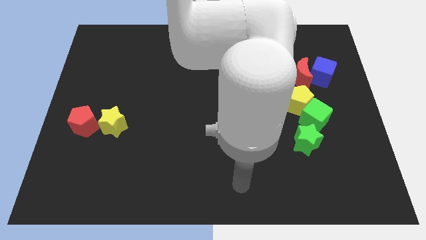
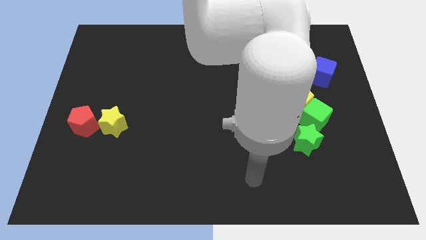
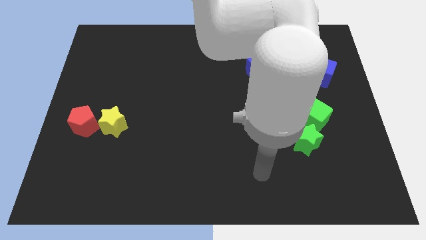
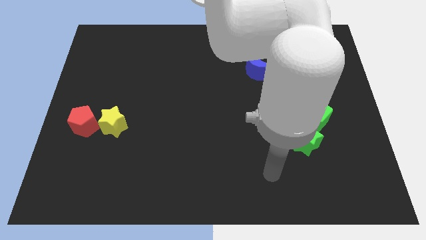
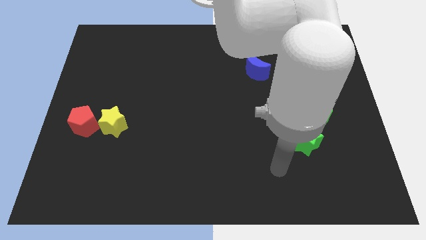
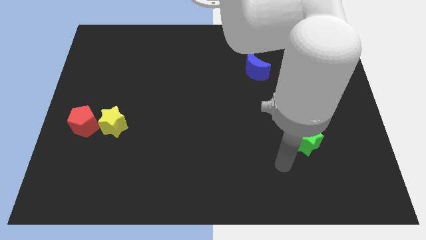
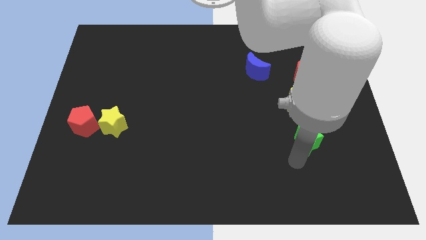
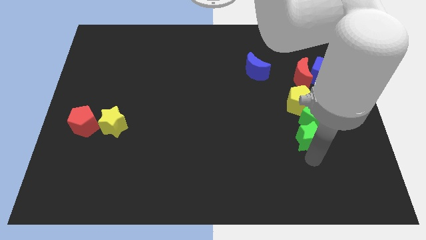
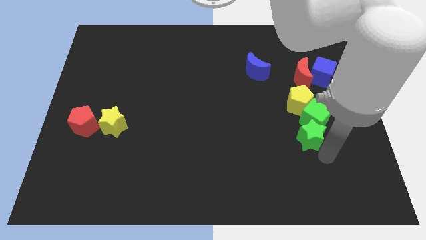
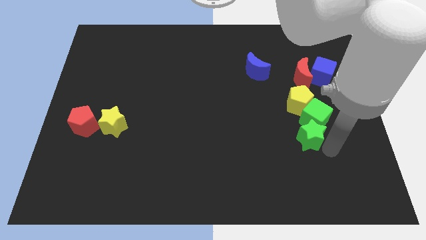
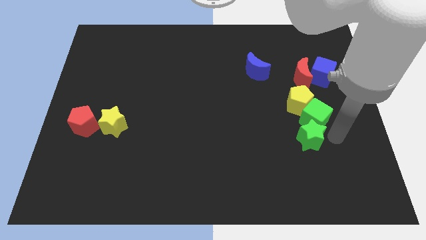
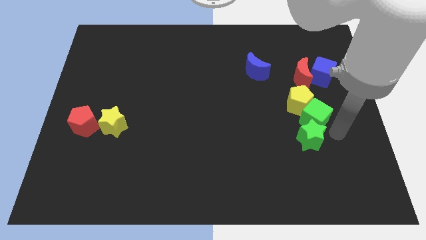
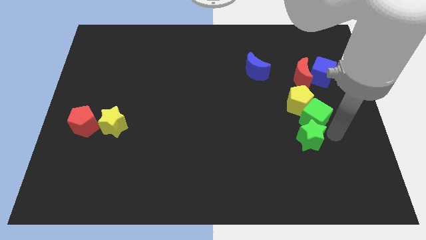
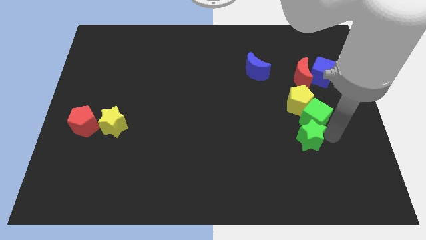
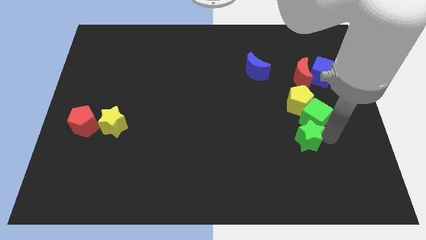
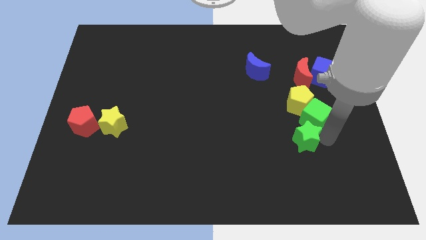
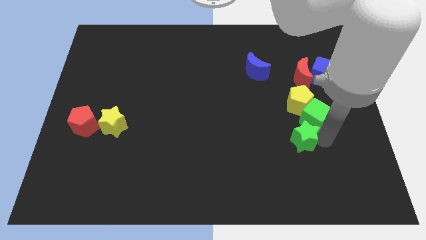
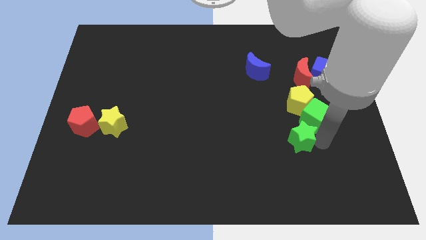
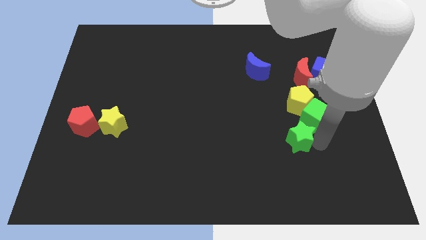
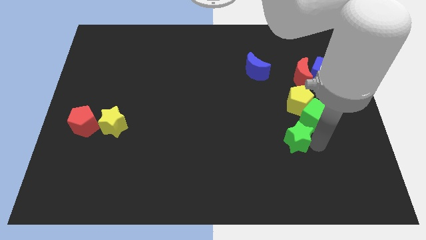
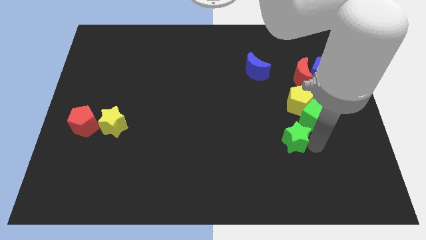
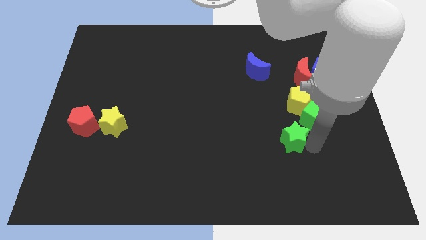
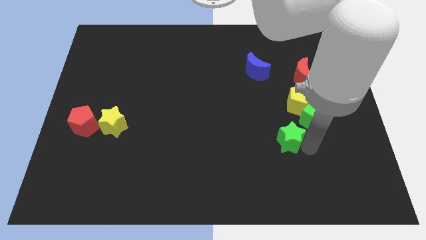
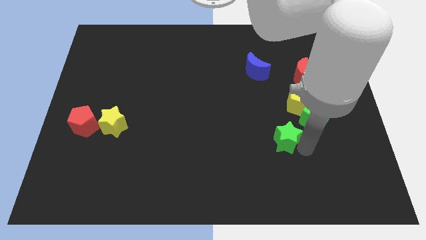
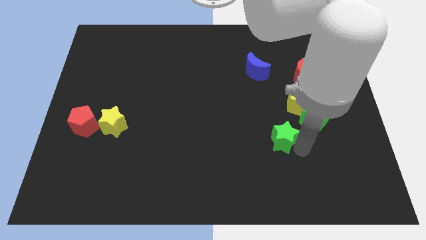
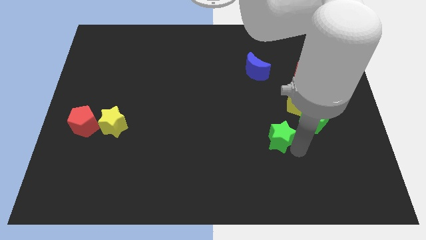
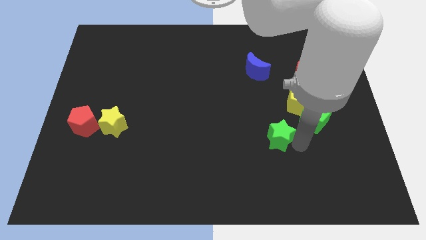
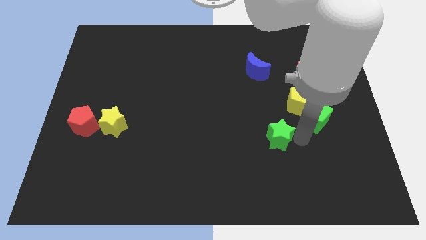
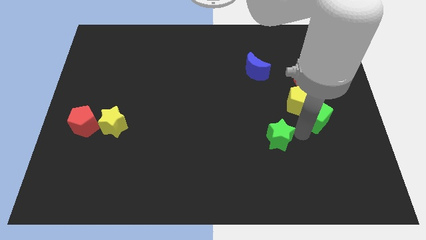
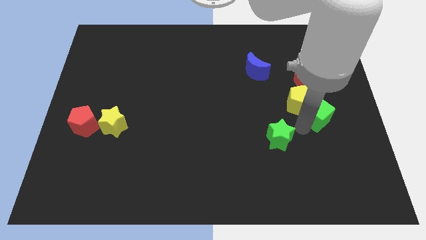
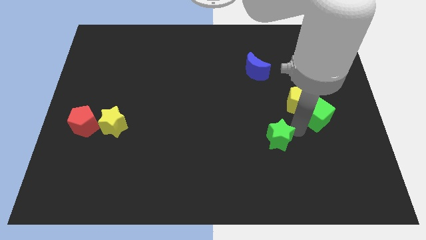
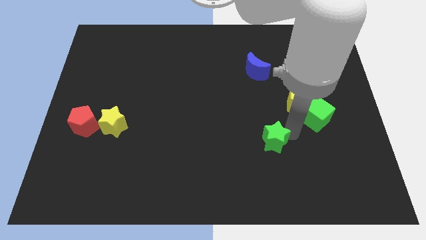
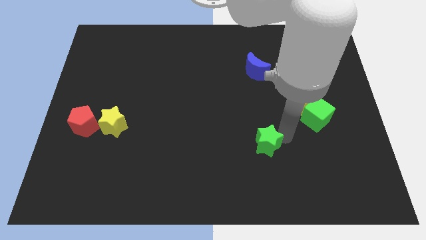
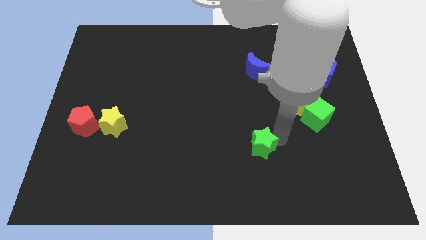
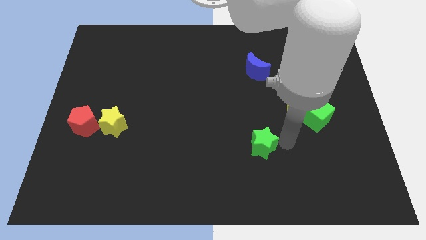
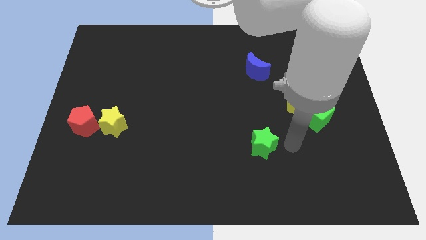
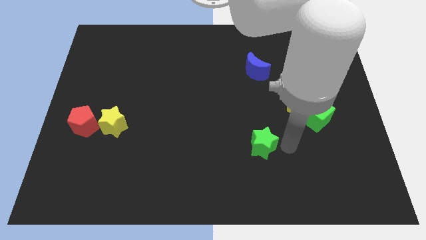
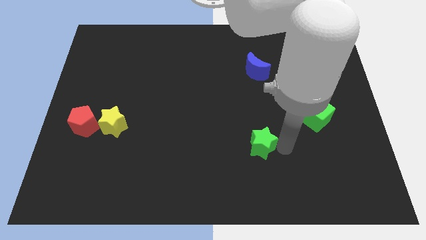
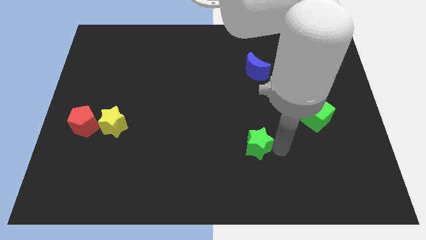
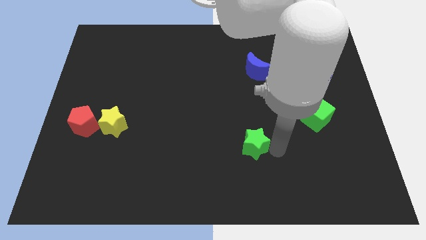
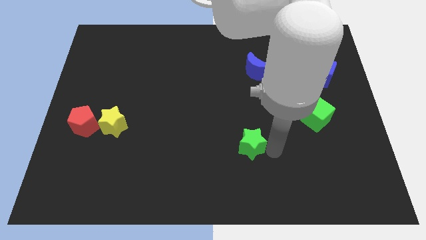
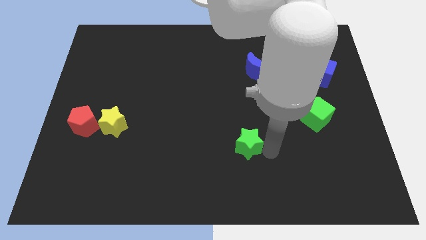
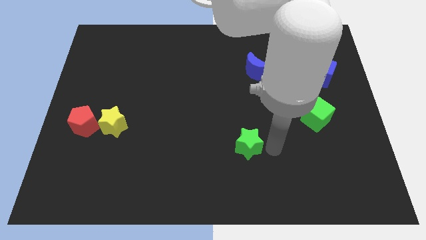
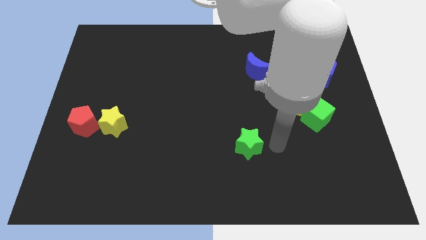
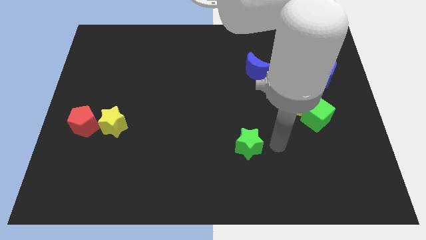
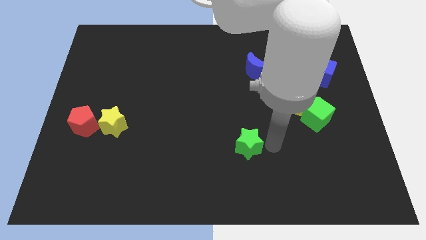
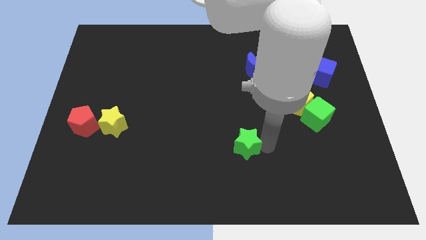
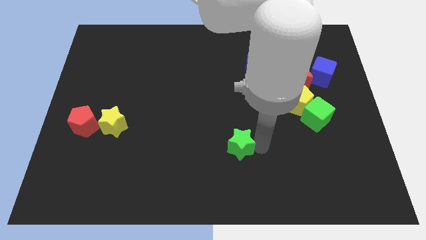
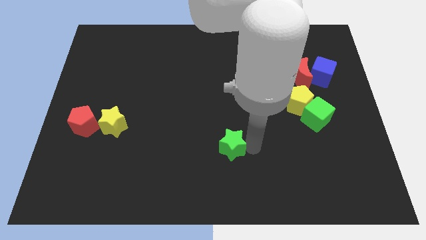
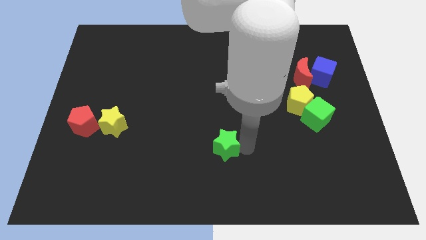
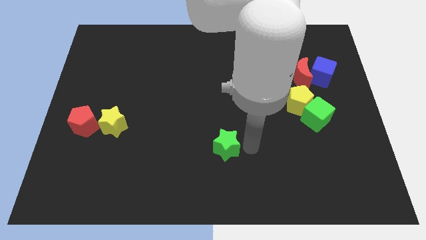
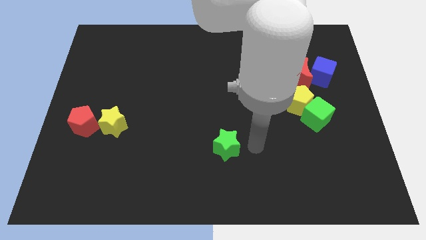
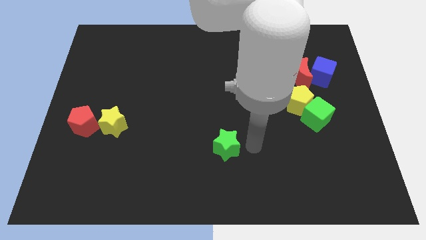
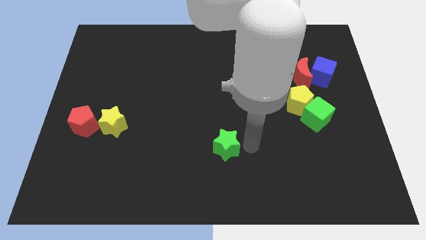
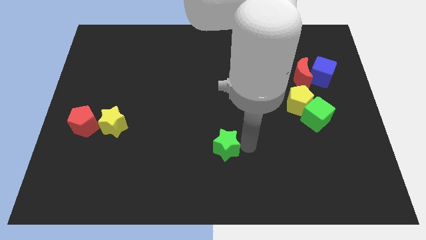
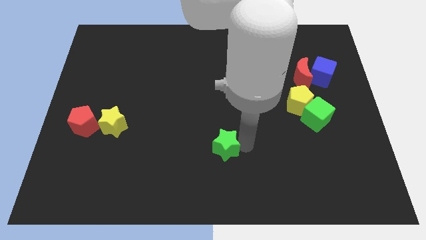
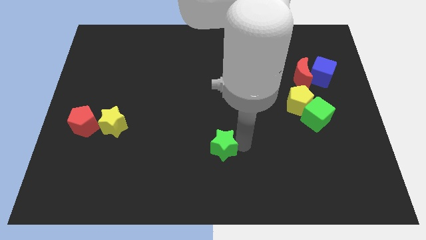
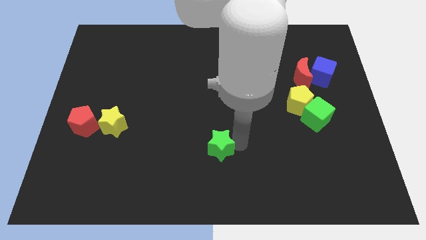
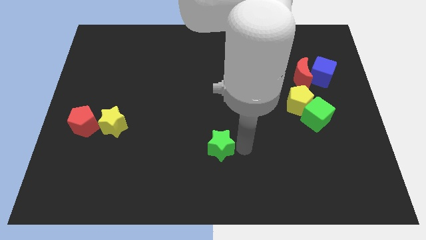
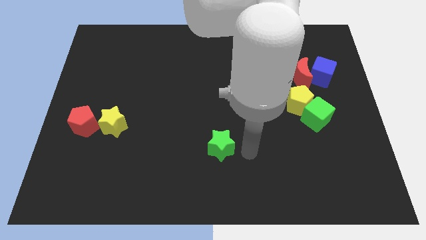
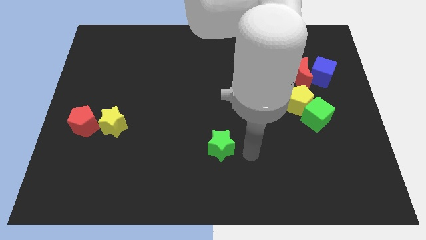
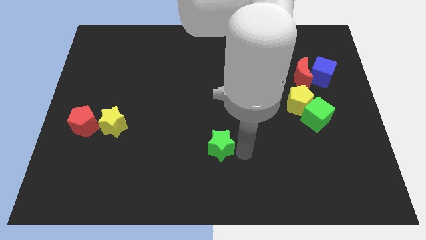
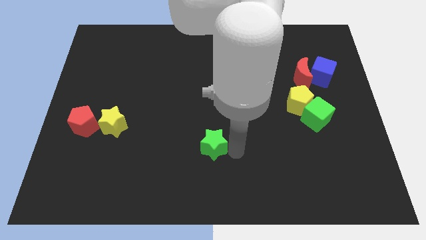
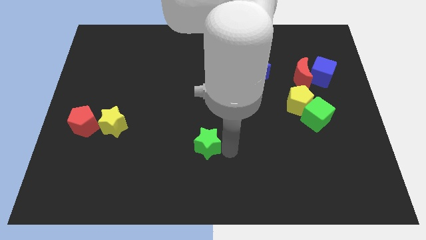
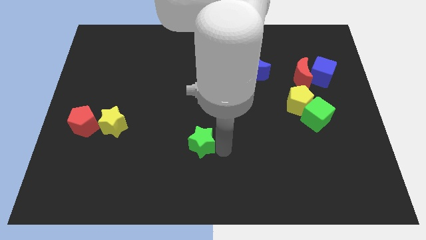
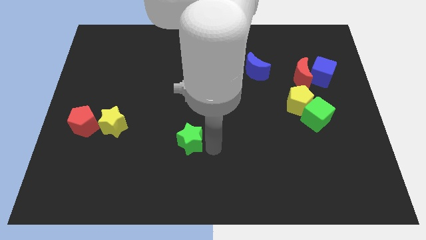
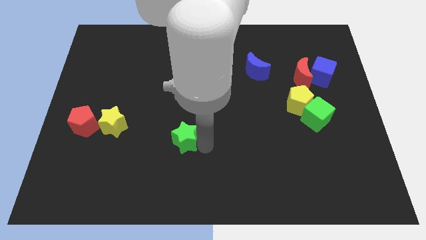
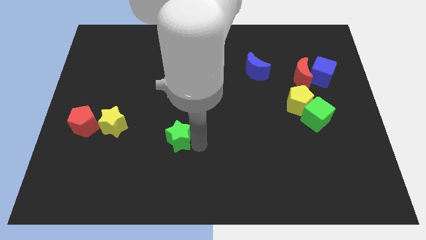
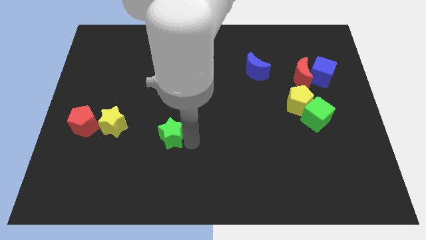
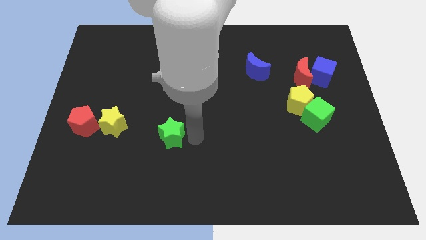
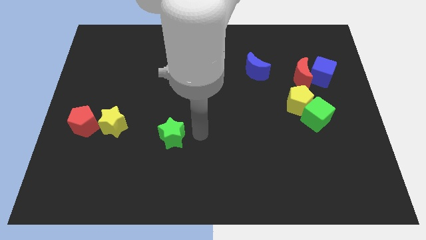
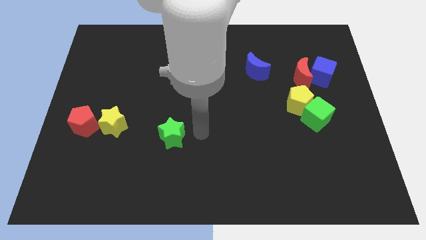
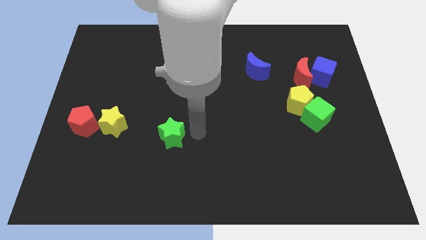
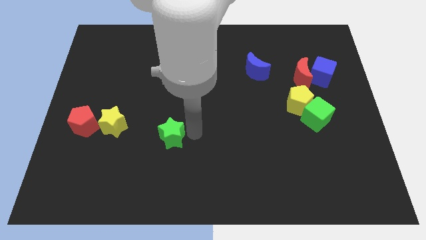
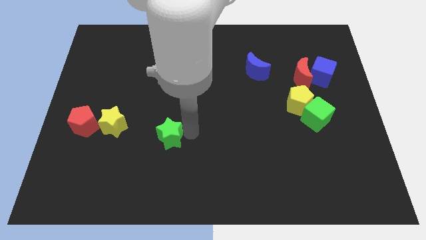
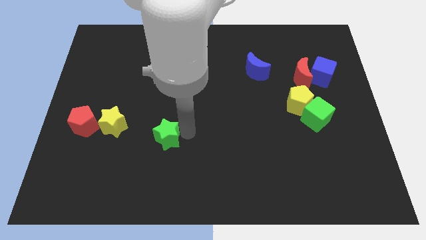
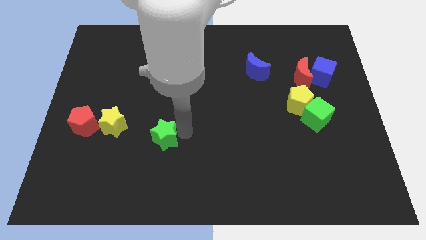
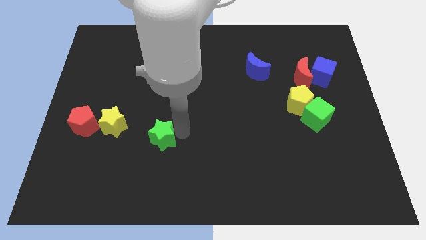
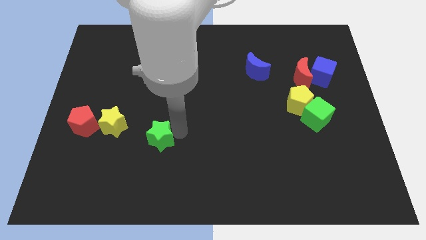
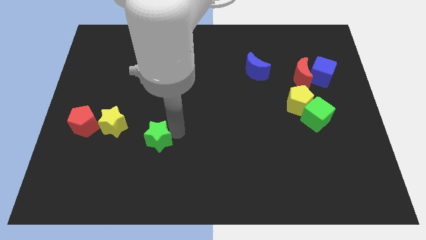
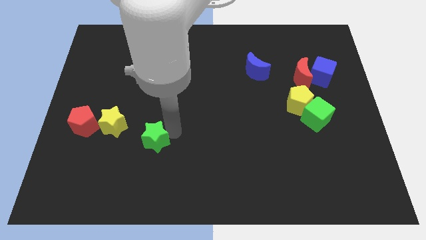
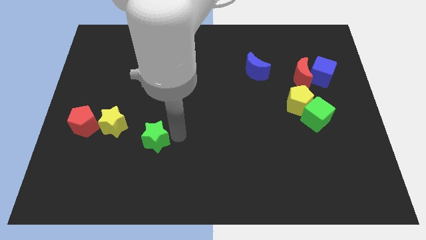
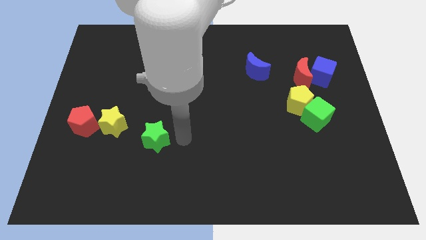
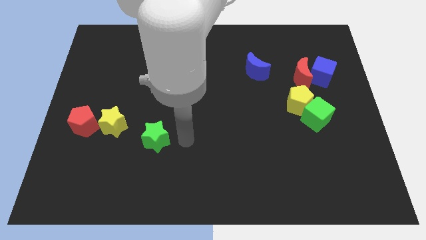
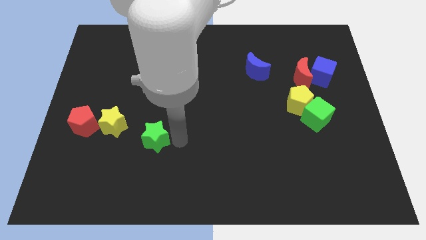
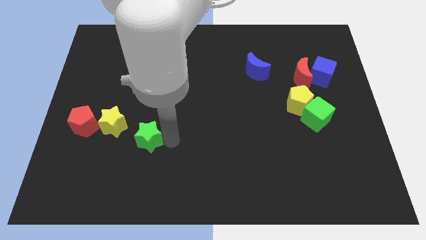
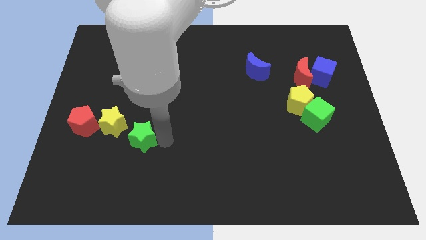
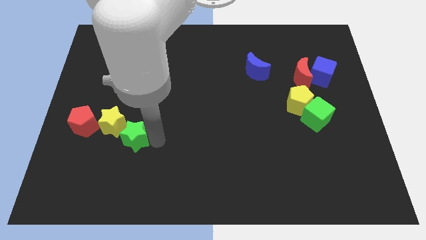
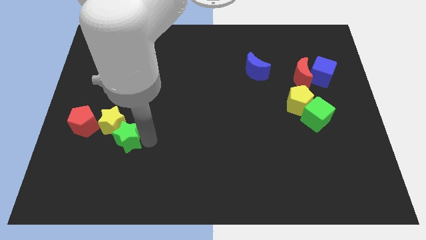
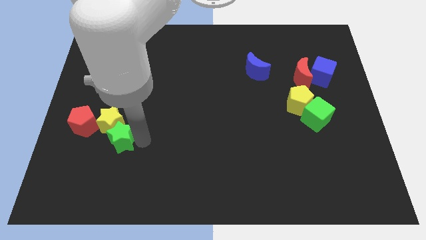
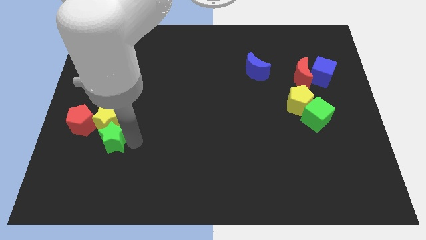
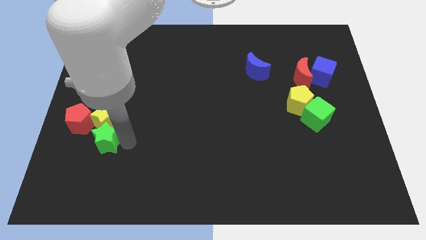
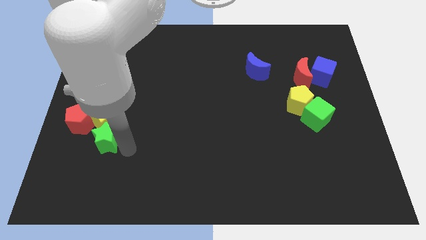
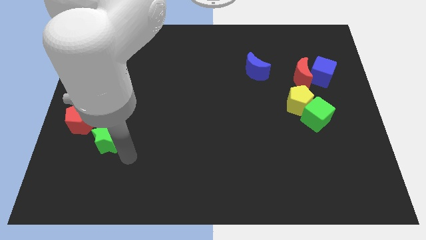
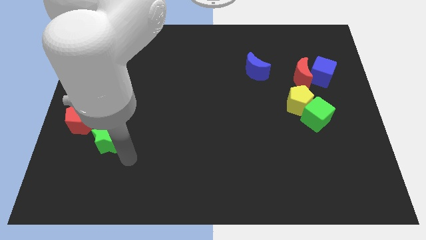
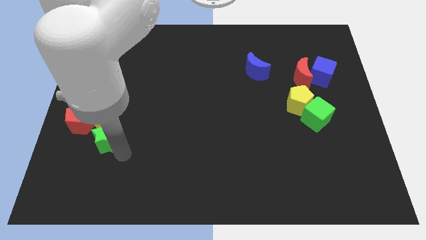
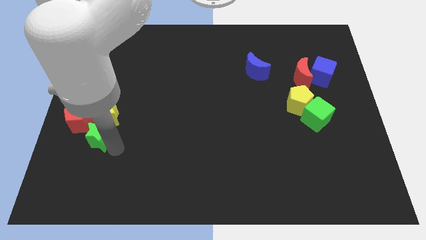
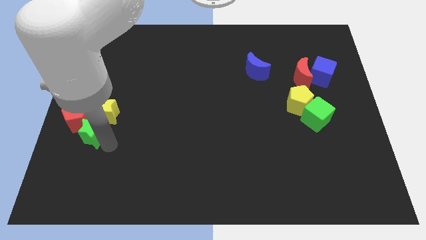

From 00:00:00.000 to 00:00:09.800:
slide the green star close to the red pentagon
